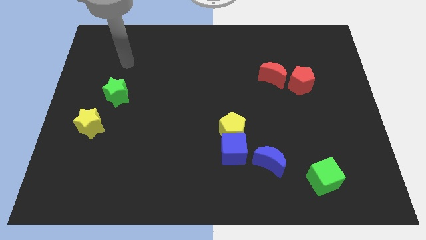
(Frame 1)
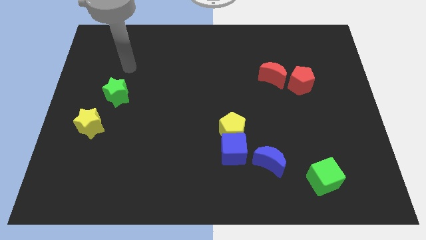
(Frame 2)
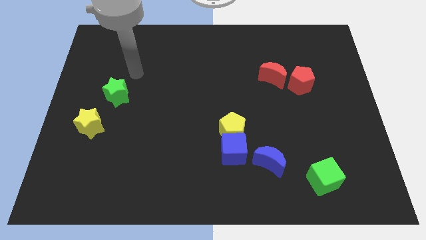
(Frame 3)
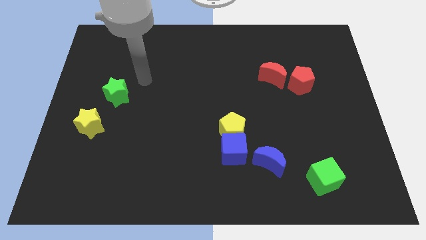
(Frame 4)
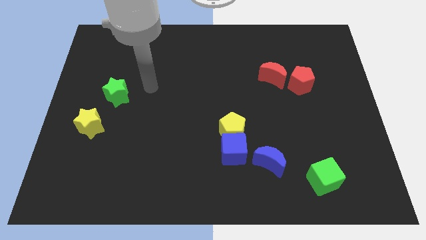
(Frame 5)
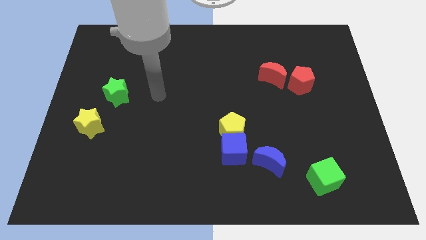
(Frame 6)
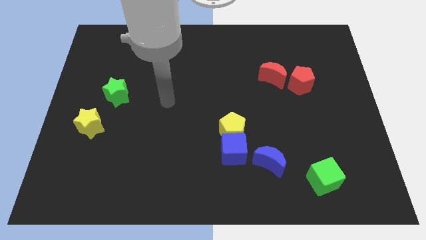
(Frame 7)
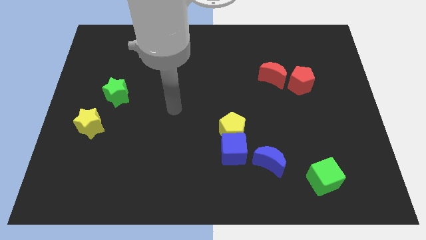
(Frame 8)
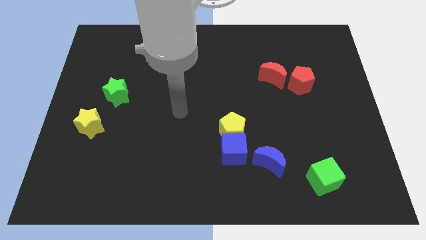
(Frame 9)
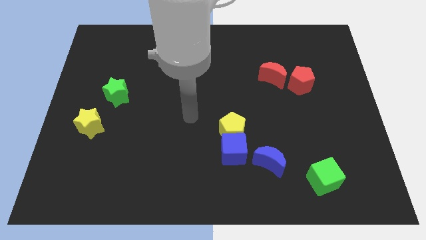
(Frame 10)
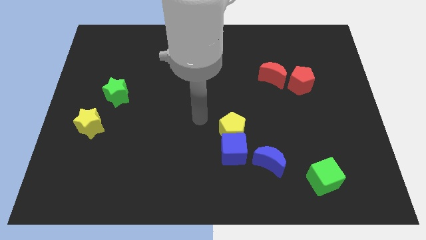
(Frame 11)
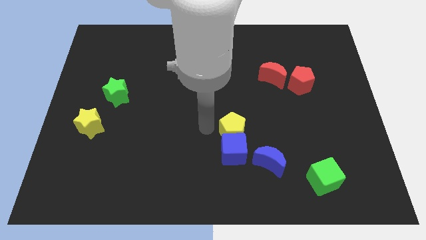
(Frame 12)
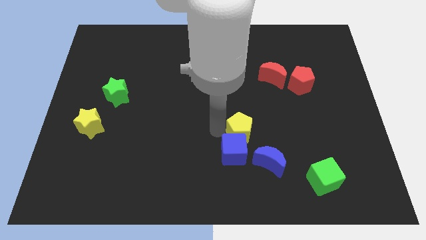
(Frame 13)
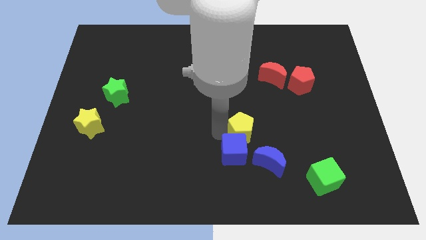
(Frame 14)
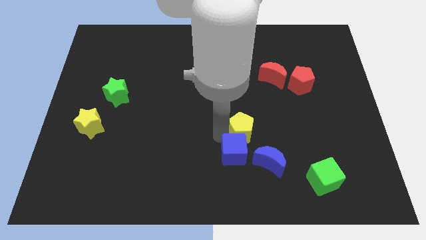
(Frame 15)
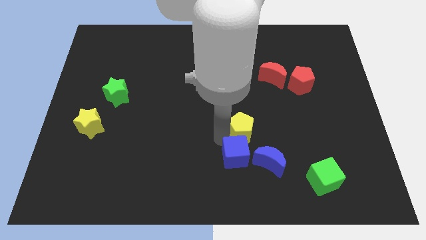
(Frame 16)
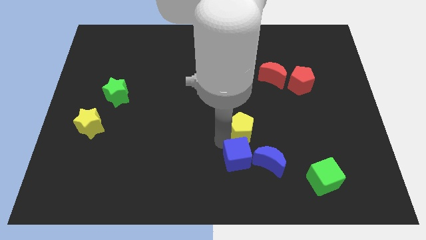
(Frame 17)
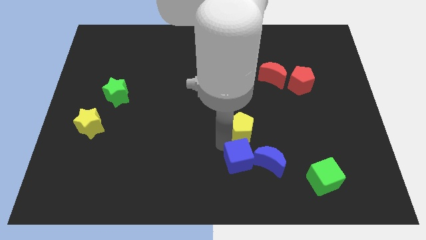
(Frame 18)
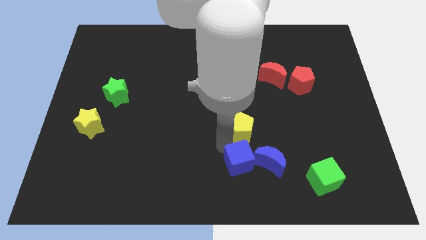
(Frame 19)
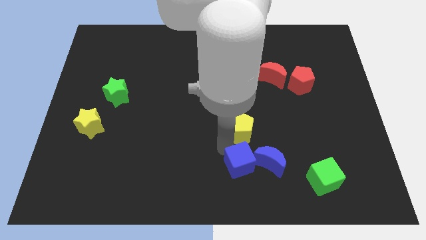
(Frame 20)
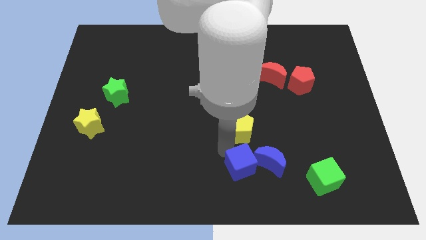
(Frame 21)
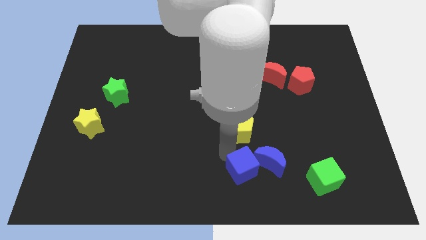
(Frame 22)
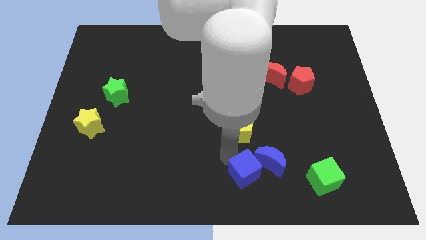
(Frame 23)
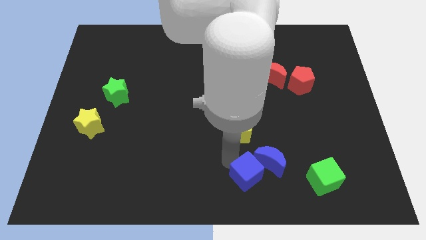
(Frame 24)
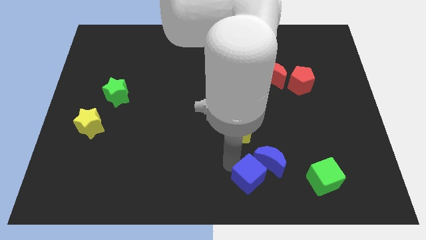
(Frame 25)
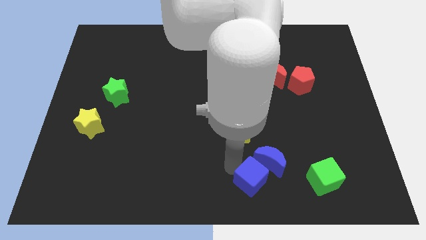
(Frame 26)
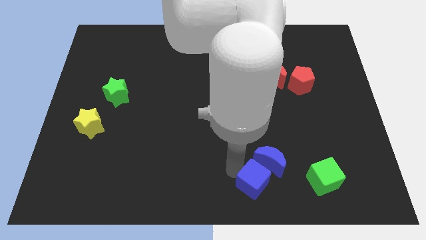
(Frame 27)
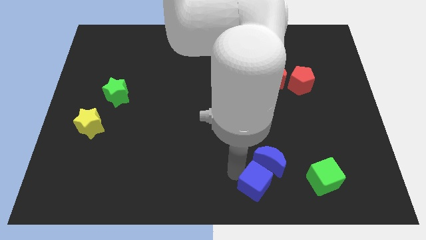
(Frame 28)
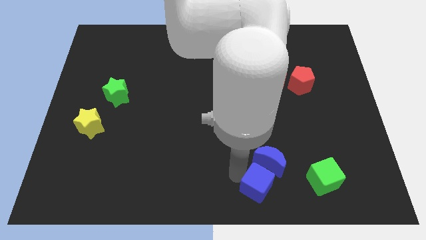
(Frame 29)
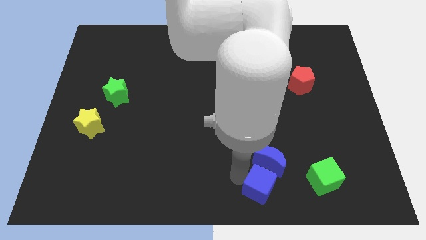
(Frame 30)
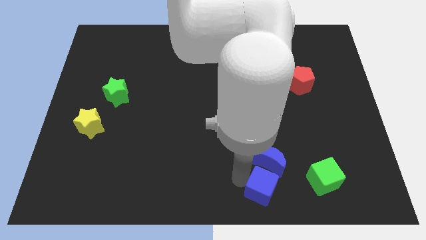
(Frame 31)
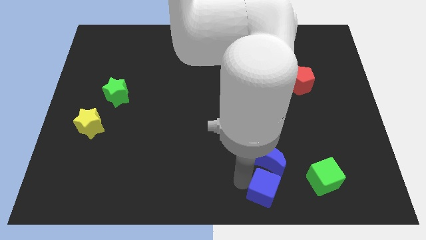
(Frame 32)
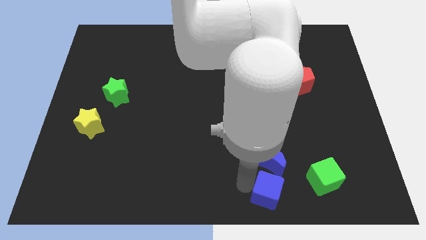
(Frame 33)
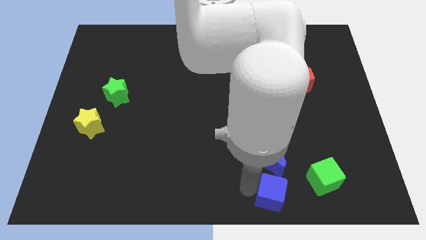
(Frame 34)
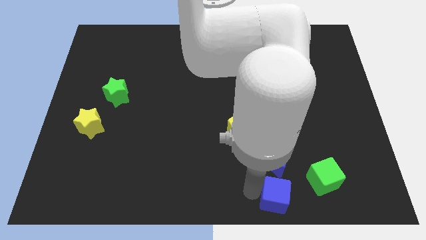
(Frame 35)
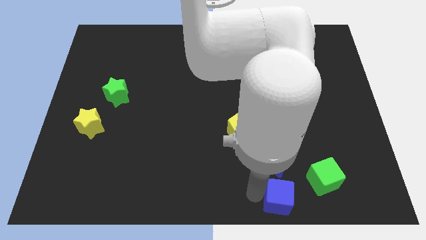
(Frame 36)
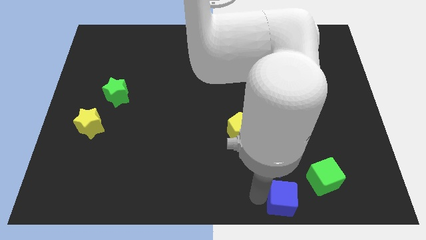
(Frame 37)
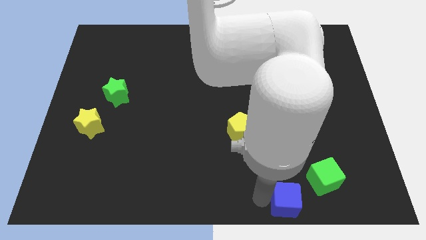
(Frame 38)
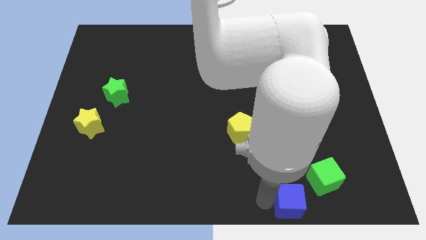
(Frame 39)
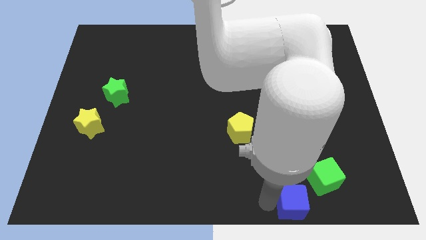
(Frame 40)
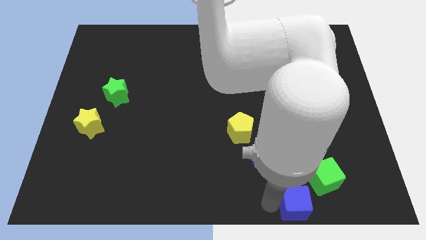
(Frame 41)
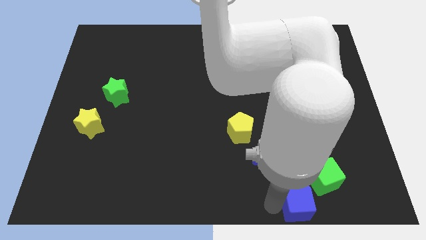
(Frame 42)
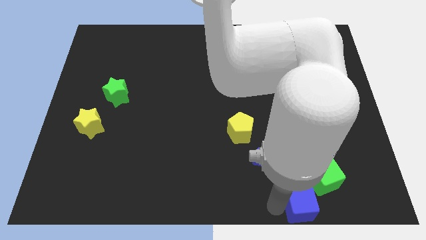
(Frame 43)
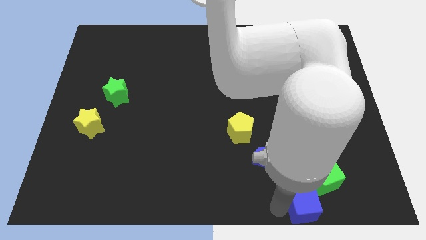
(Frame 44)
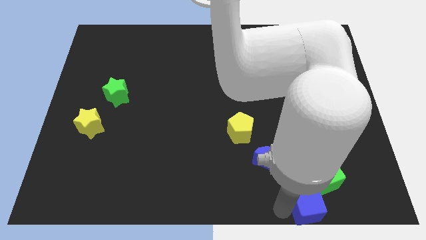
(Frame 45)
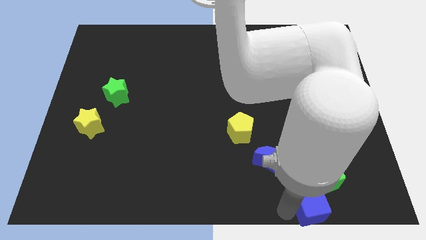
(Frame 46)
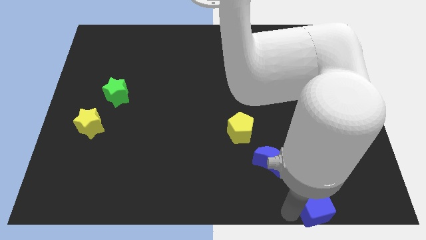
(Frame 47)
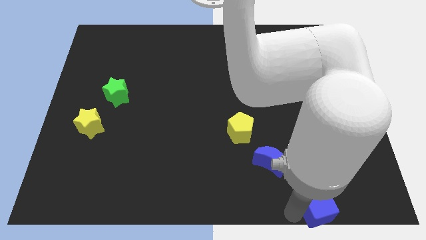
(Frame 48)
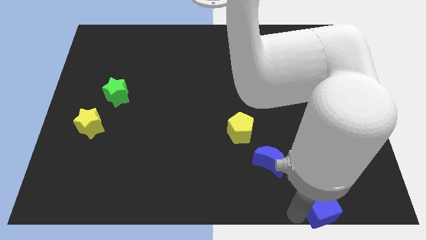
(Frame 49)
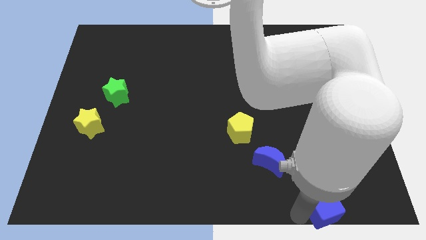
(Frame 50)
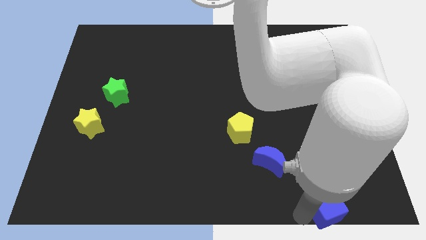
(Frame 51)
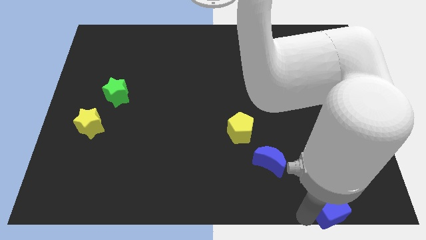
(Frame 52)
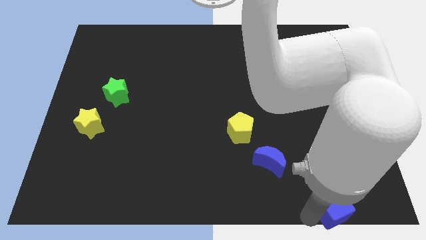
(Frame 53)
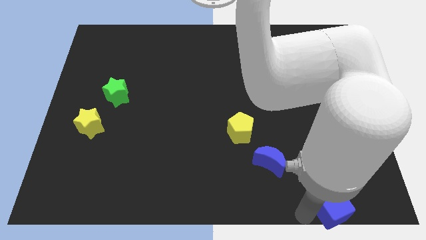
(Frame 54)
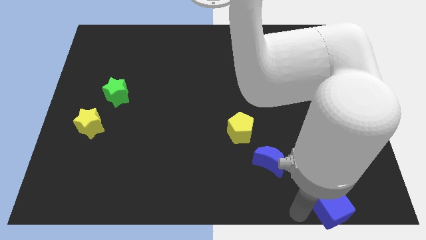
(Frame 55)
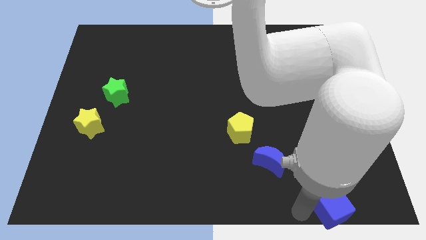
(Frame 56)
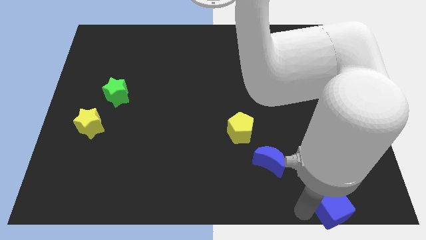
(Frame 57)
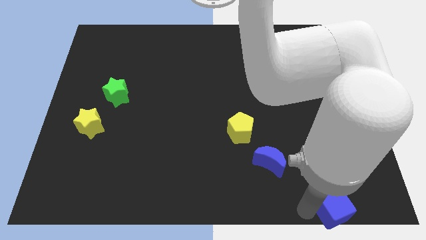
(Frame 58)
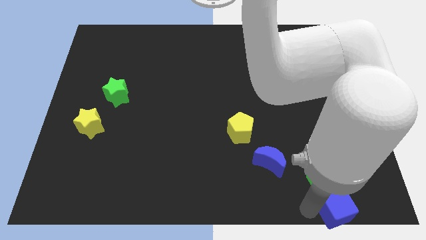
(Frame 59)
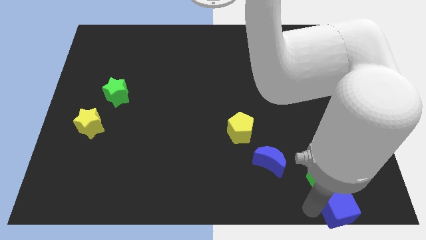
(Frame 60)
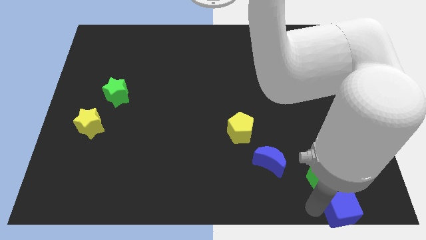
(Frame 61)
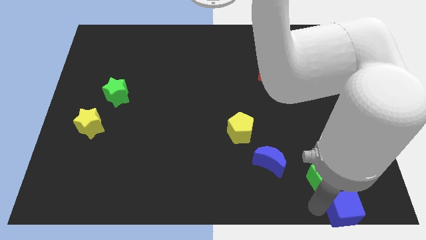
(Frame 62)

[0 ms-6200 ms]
push the blue cube to the bottom right corner

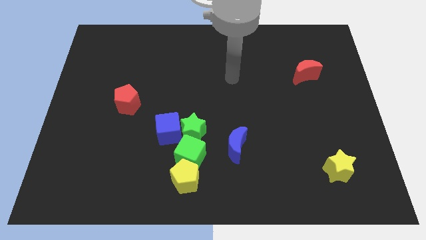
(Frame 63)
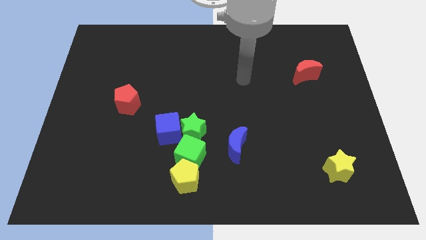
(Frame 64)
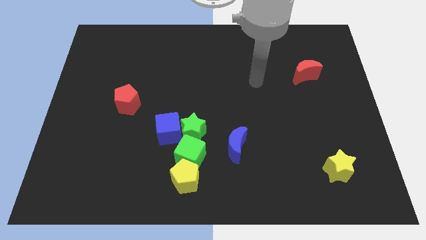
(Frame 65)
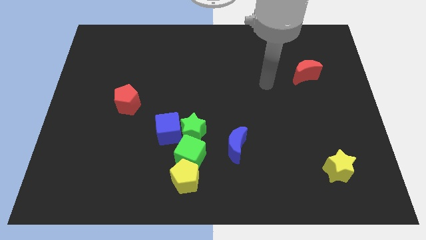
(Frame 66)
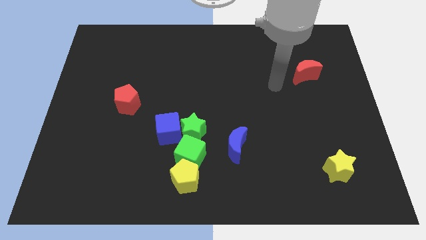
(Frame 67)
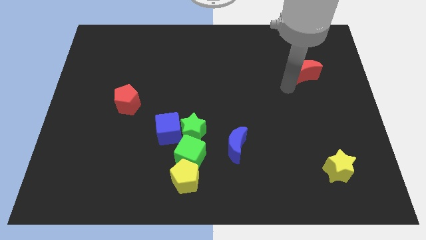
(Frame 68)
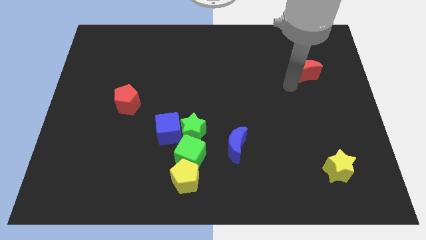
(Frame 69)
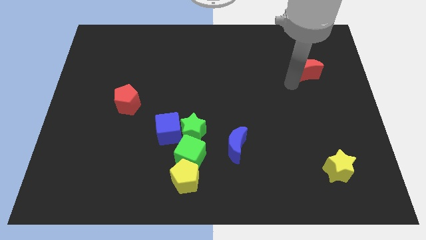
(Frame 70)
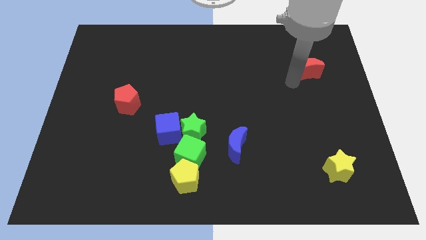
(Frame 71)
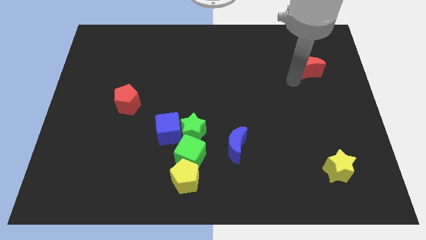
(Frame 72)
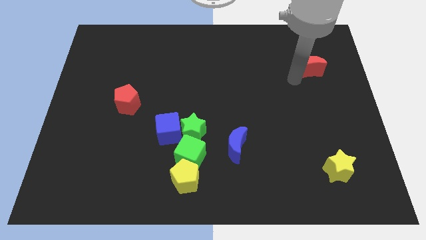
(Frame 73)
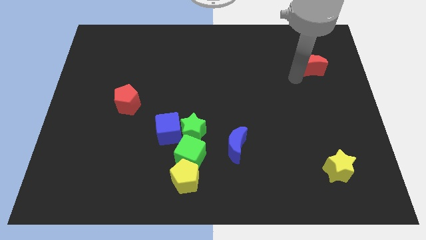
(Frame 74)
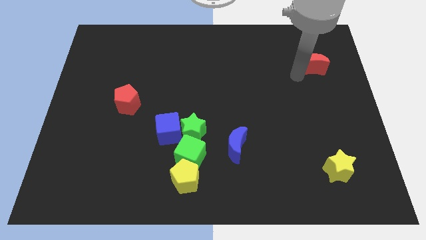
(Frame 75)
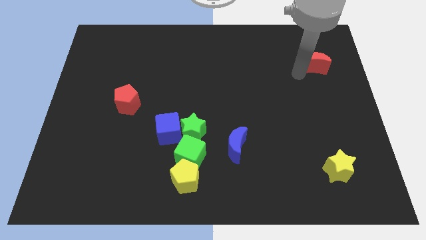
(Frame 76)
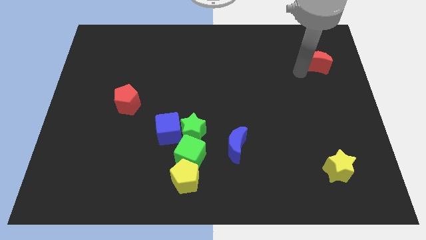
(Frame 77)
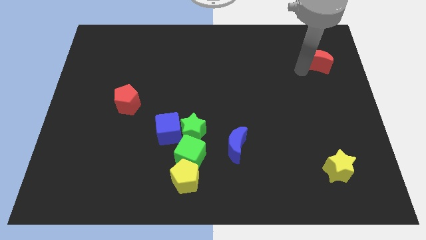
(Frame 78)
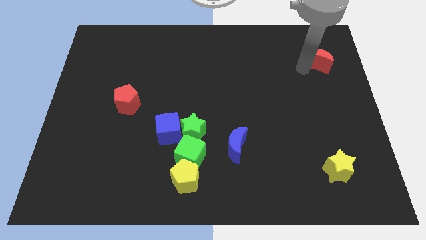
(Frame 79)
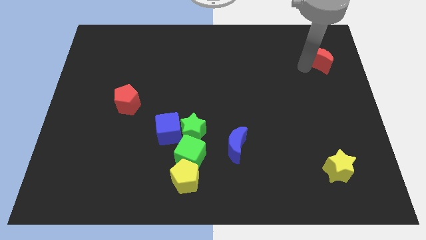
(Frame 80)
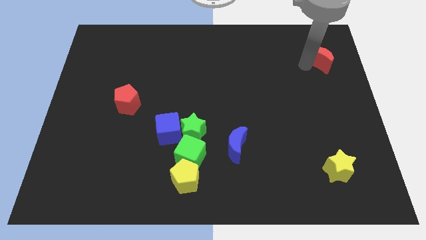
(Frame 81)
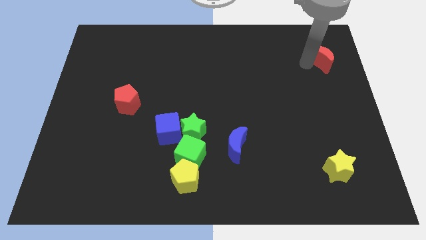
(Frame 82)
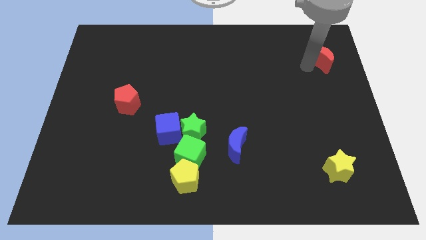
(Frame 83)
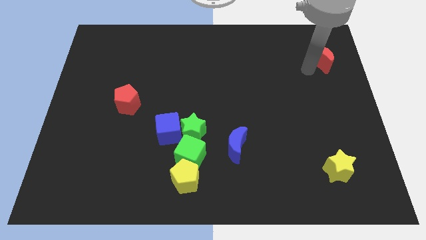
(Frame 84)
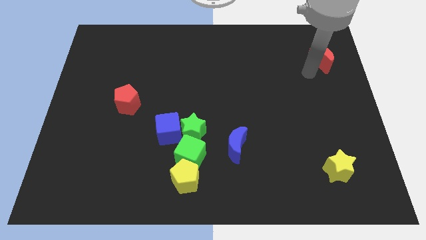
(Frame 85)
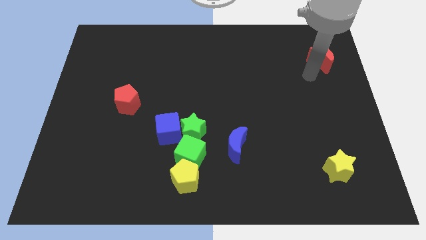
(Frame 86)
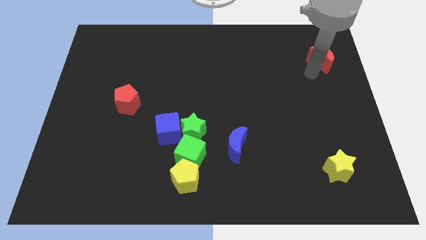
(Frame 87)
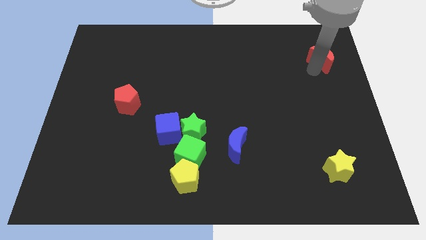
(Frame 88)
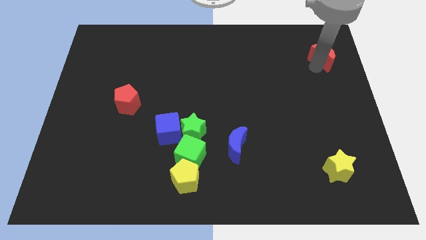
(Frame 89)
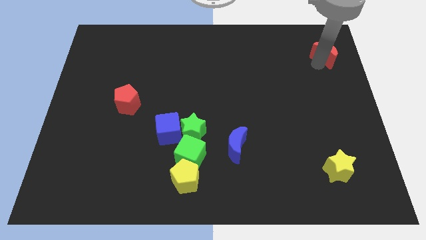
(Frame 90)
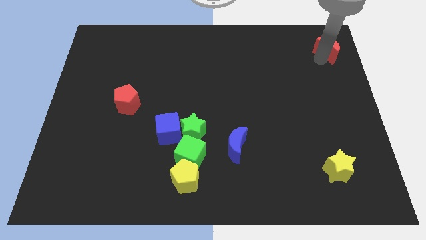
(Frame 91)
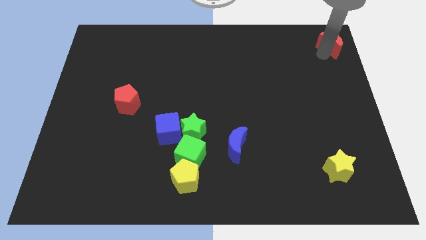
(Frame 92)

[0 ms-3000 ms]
slide the red moon to the top right corner
